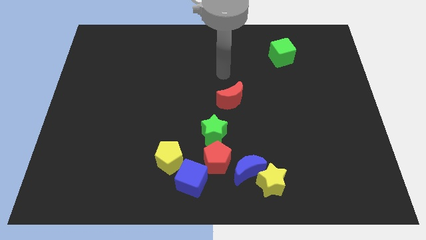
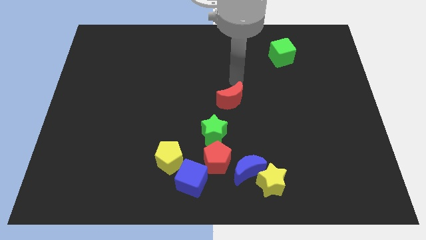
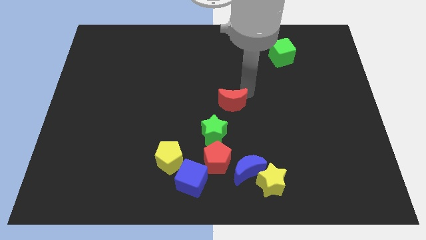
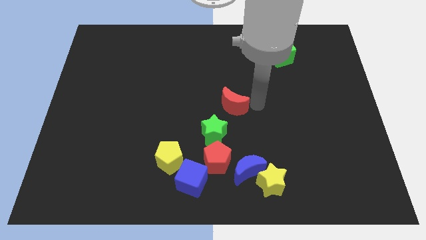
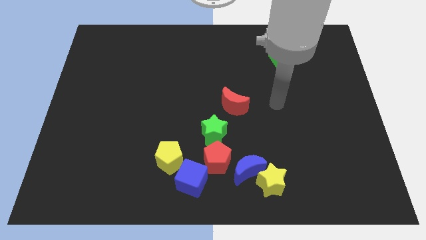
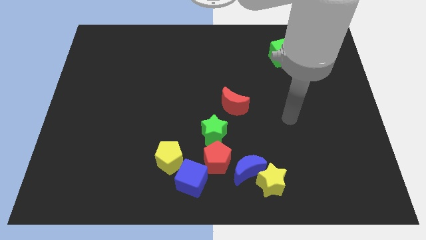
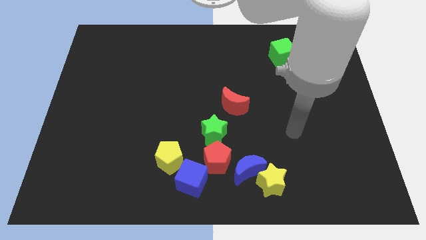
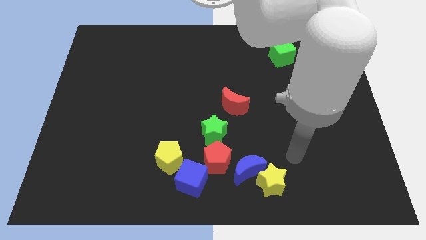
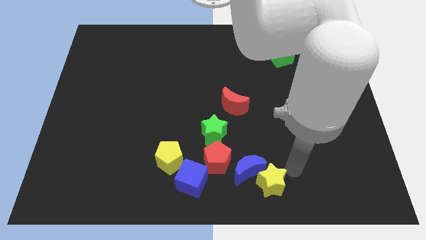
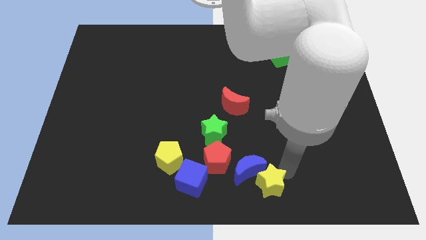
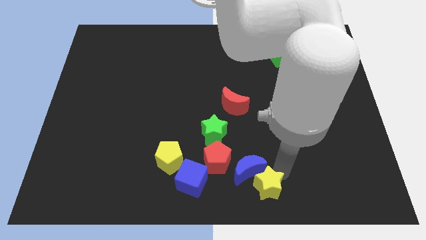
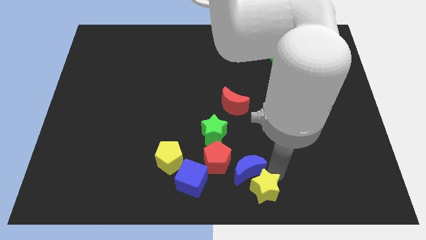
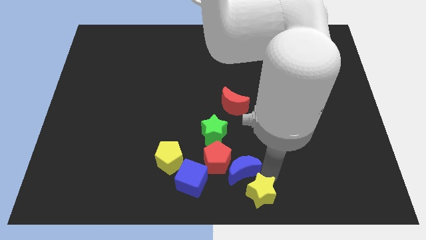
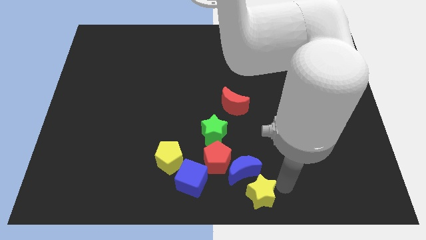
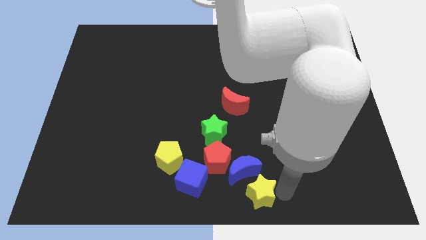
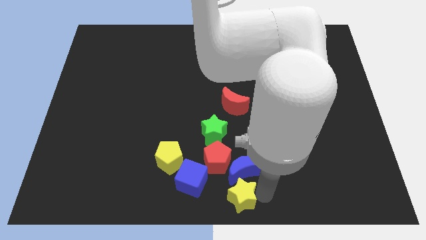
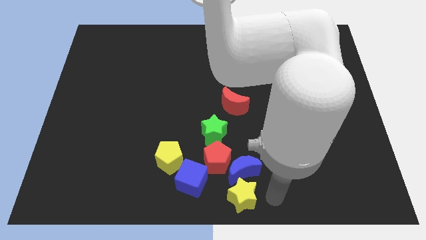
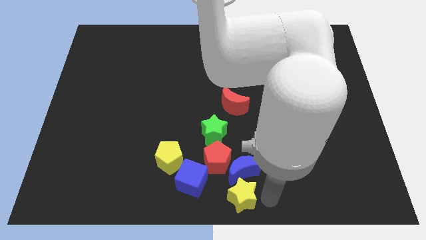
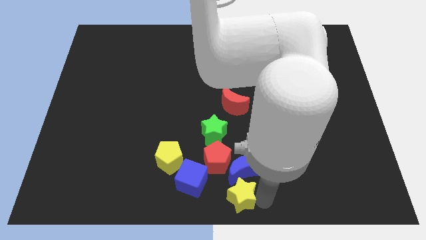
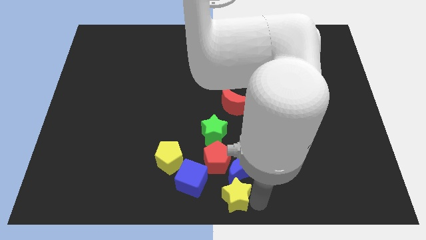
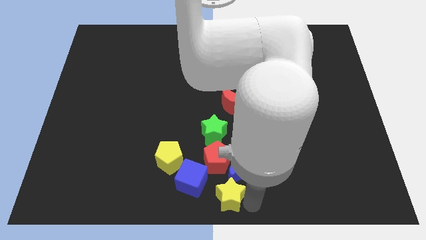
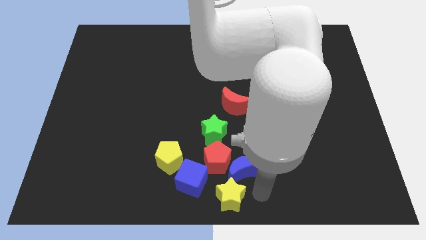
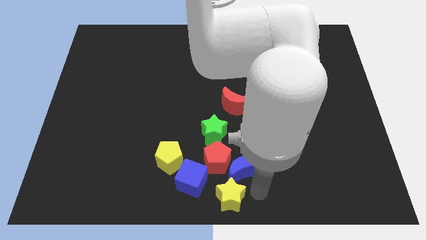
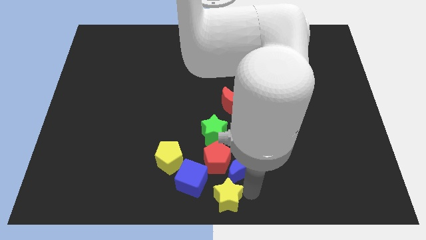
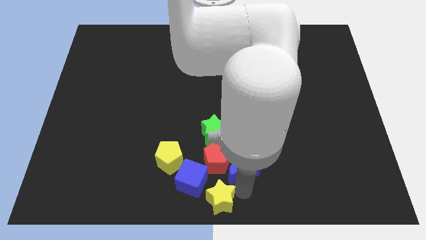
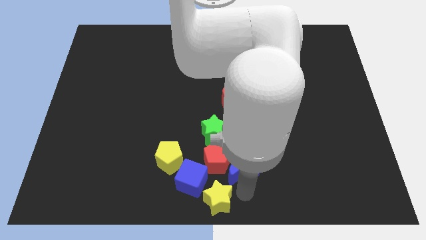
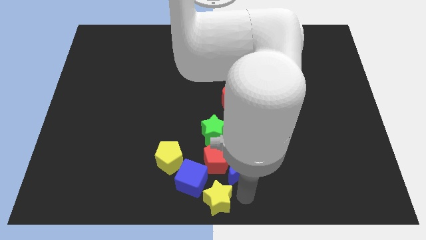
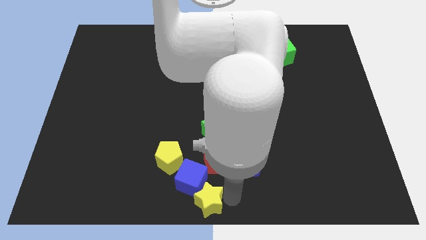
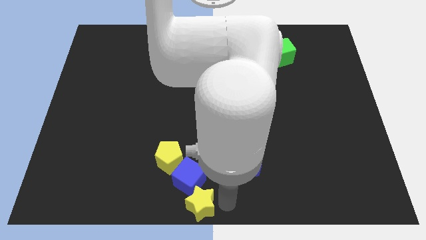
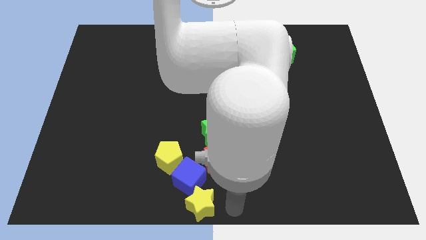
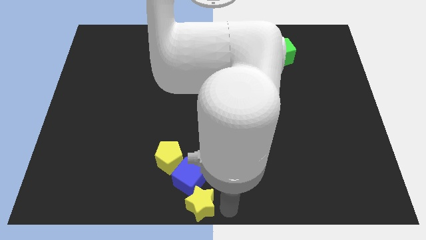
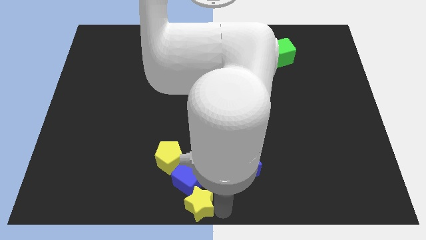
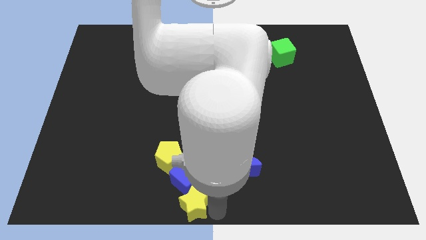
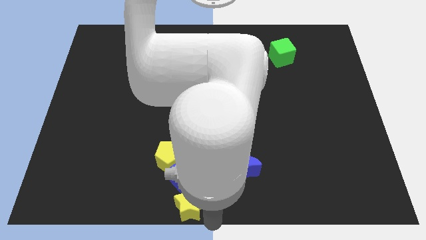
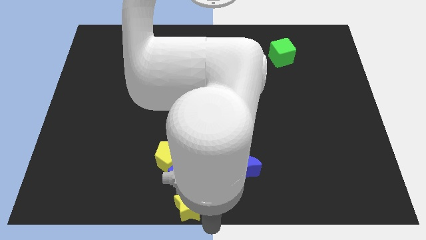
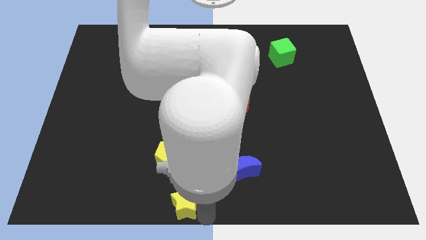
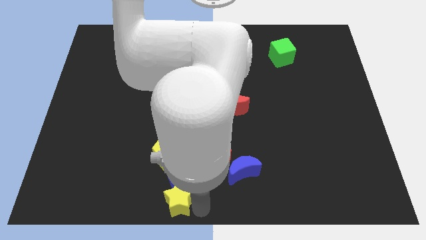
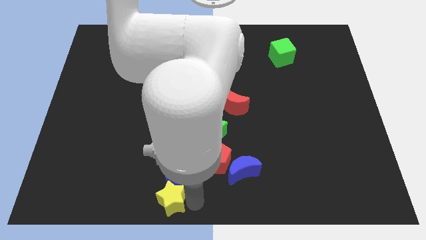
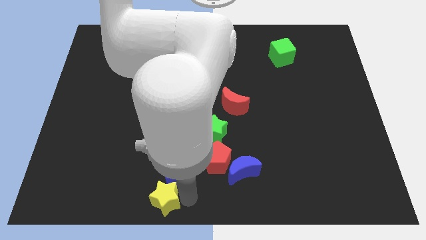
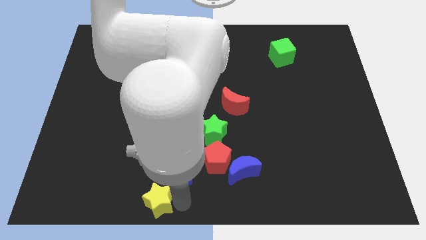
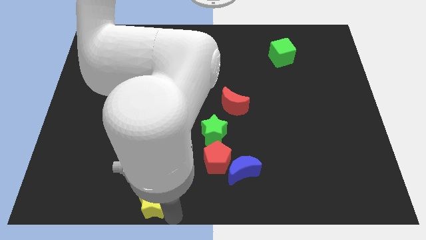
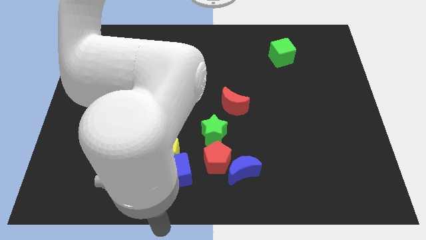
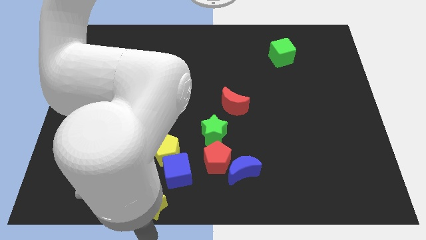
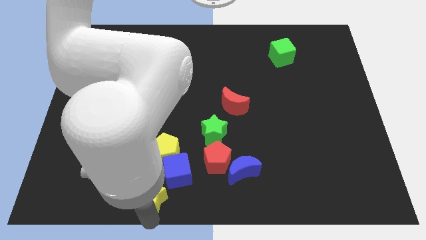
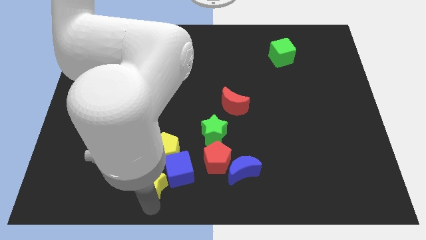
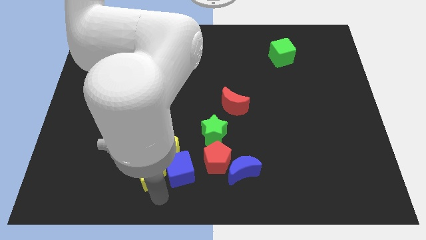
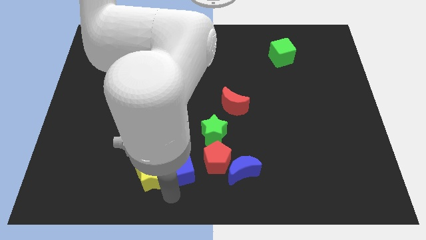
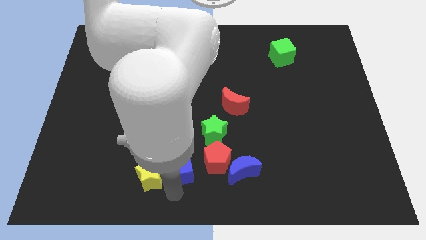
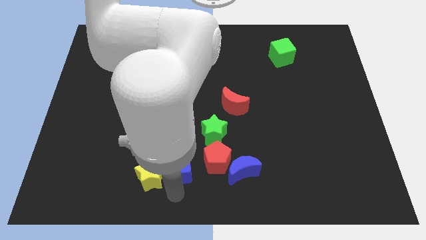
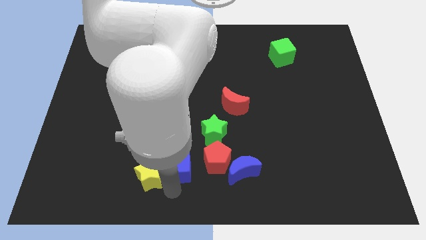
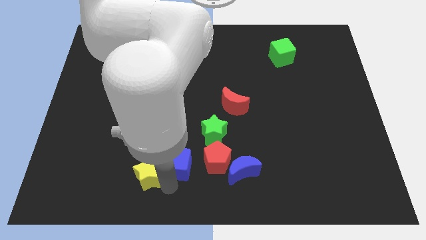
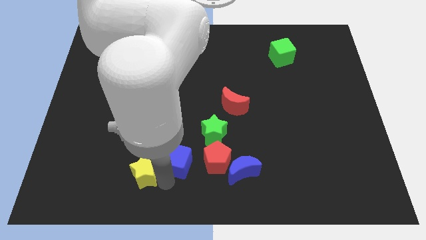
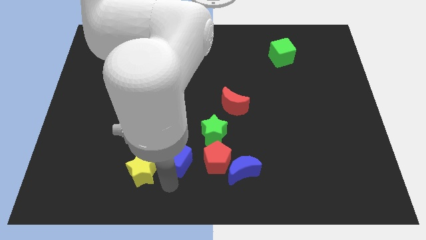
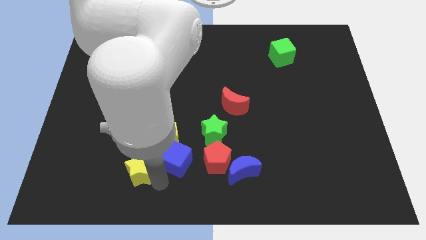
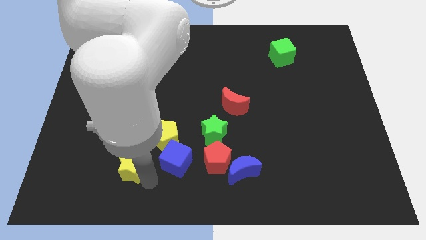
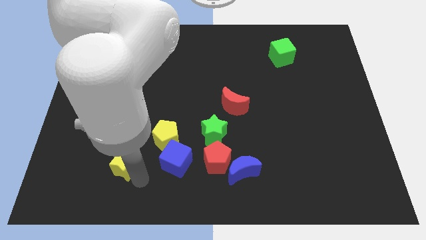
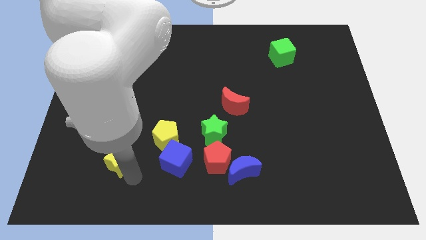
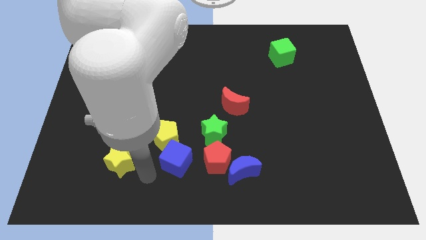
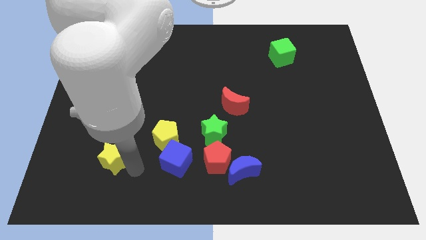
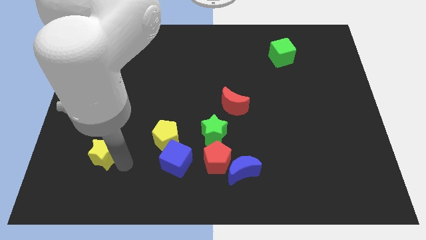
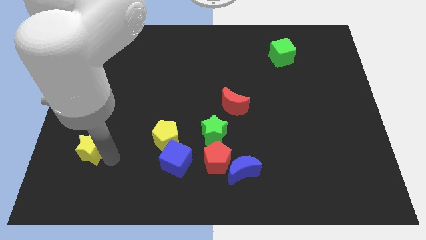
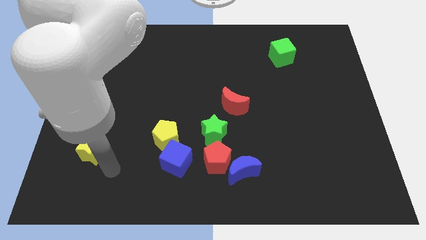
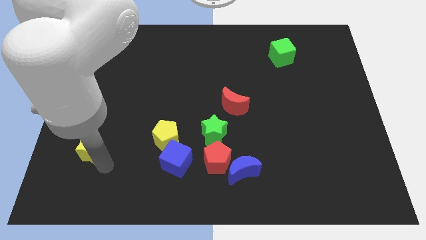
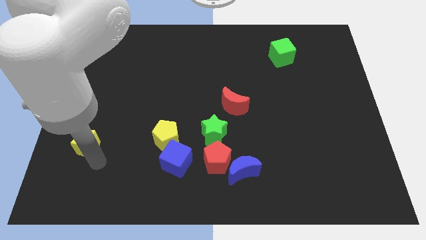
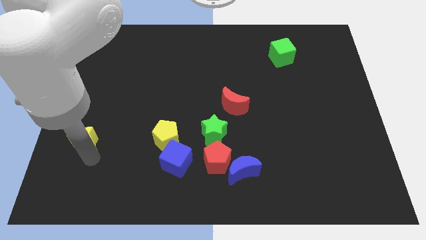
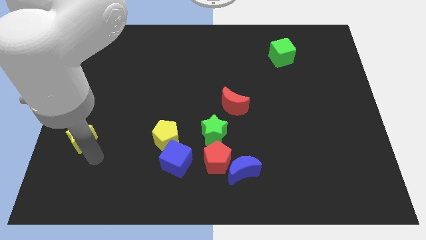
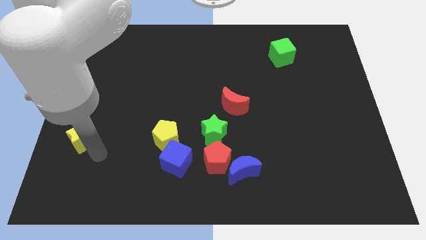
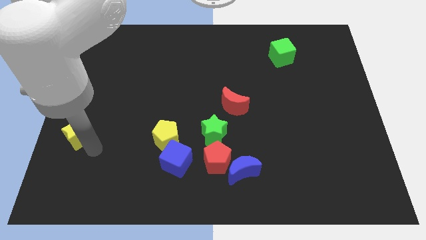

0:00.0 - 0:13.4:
push the yellow star to the left side
